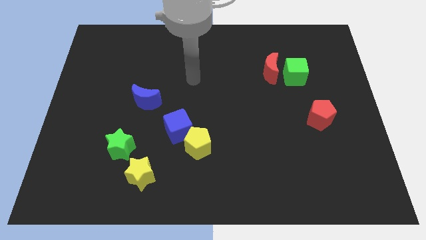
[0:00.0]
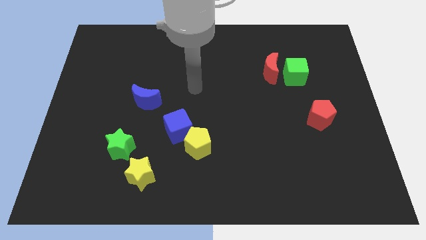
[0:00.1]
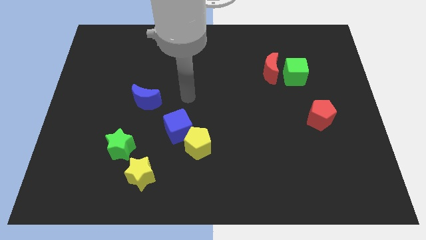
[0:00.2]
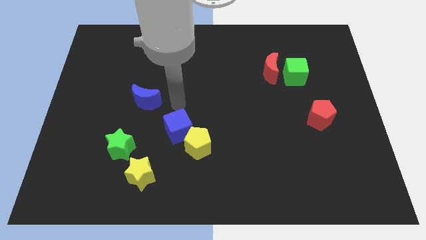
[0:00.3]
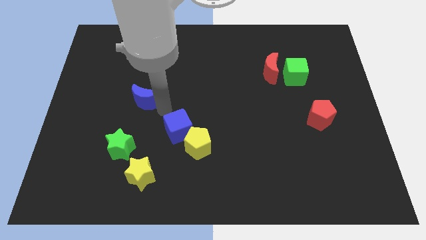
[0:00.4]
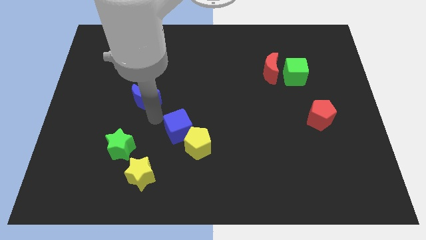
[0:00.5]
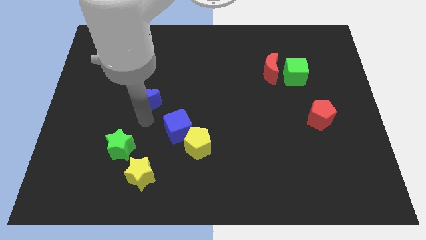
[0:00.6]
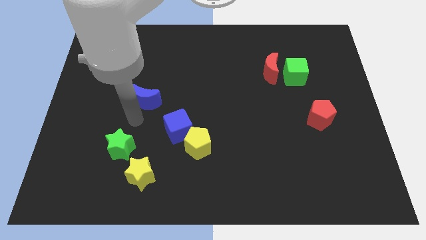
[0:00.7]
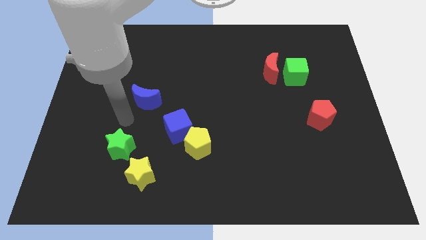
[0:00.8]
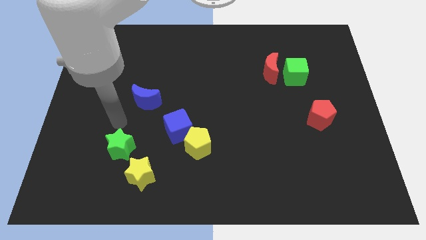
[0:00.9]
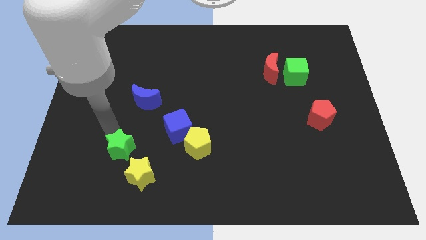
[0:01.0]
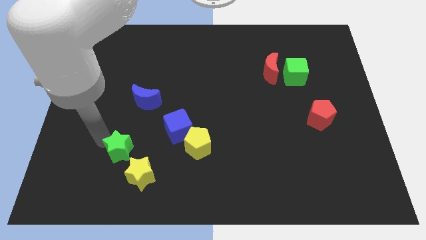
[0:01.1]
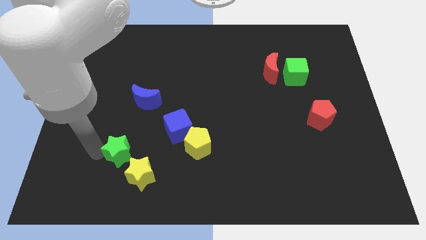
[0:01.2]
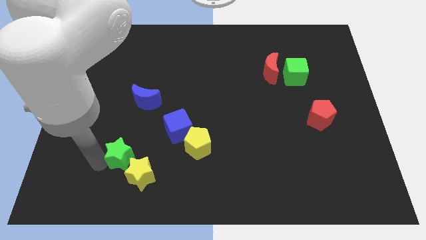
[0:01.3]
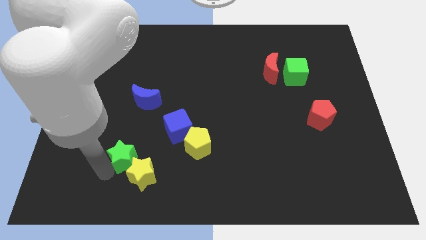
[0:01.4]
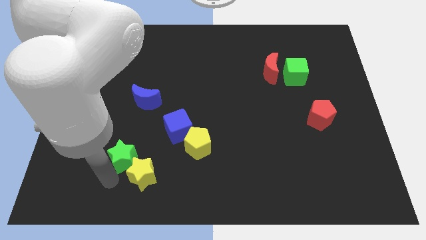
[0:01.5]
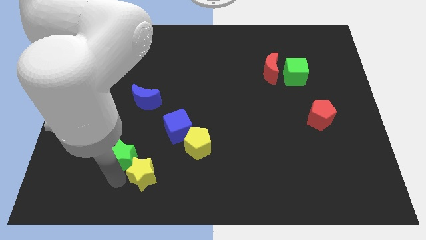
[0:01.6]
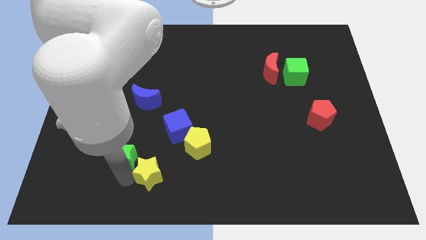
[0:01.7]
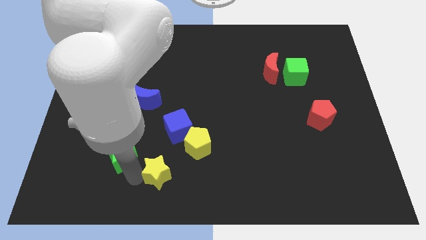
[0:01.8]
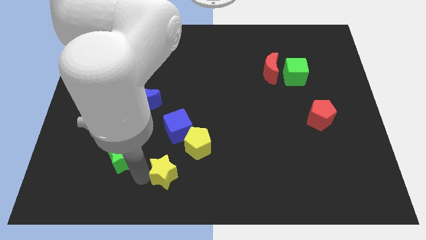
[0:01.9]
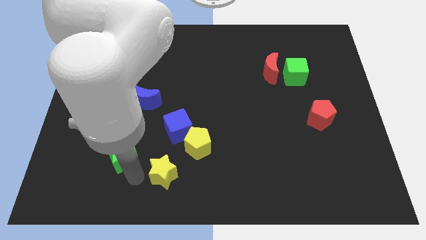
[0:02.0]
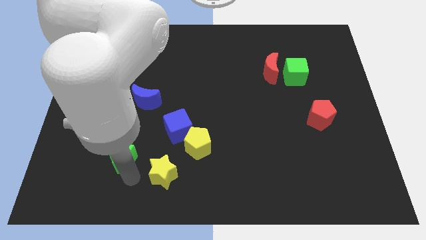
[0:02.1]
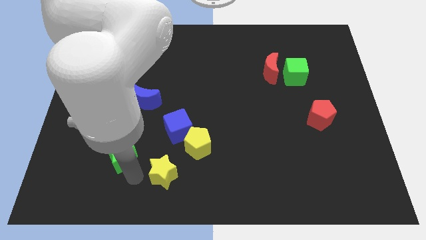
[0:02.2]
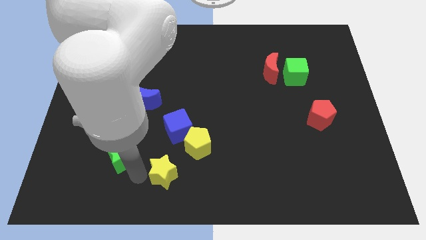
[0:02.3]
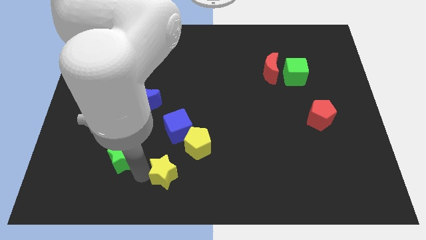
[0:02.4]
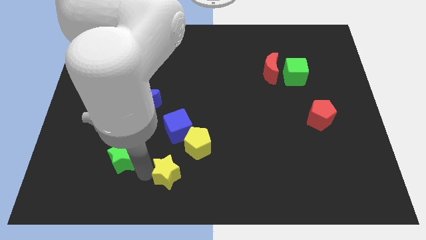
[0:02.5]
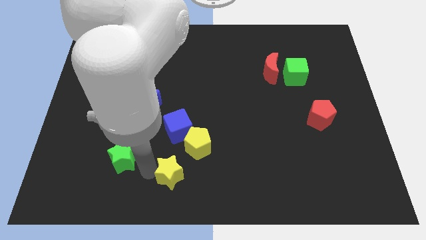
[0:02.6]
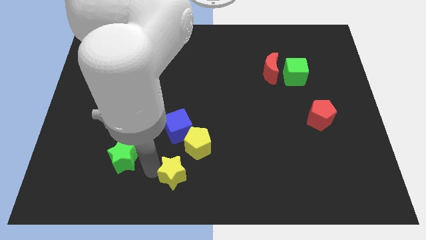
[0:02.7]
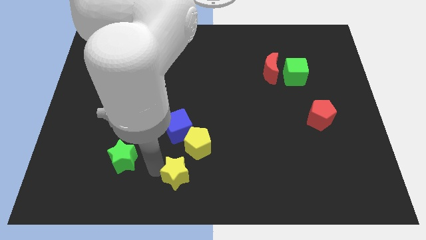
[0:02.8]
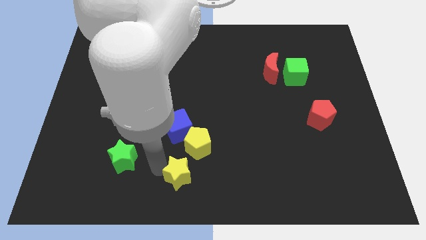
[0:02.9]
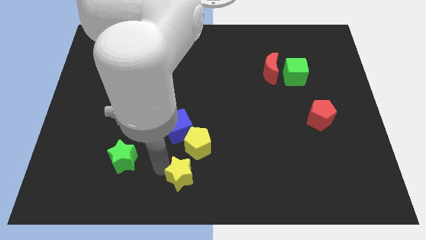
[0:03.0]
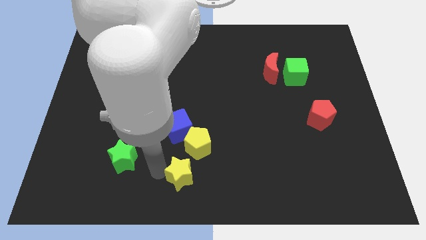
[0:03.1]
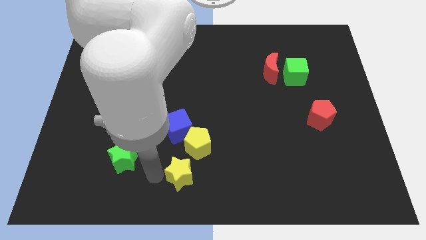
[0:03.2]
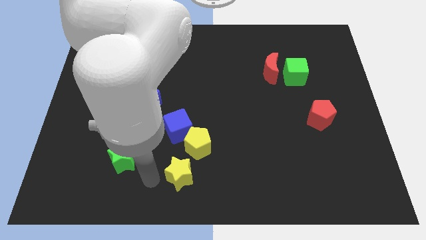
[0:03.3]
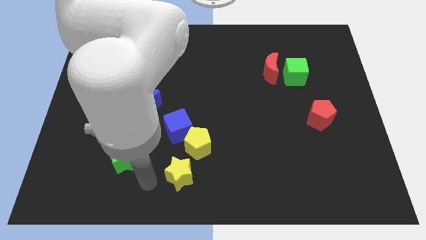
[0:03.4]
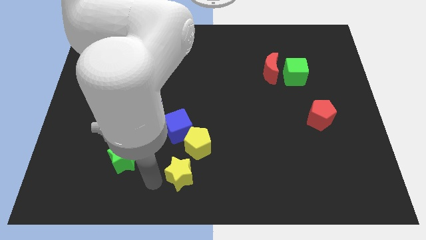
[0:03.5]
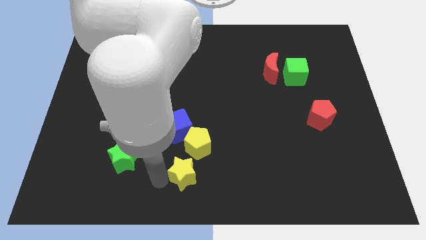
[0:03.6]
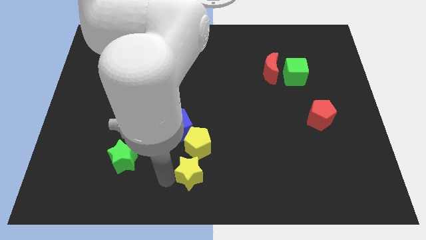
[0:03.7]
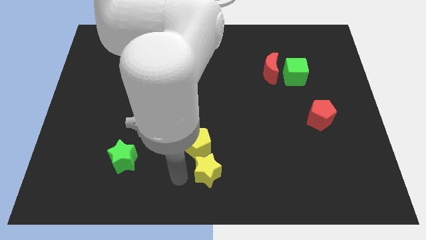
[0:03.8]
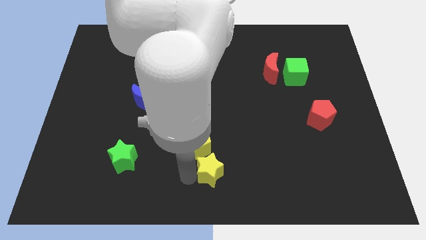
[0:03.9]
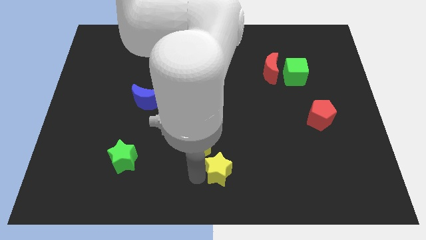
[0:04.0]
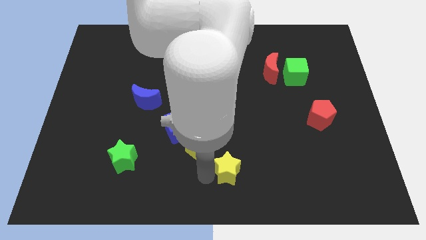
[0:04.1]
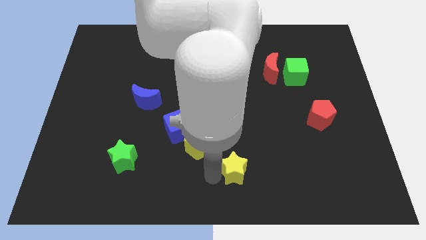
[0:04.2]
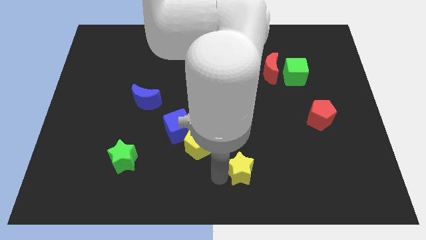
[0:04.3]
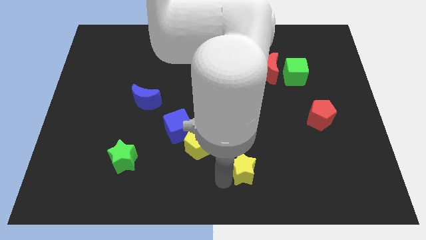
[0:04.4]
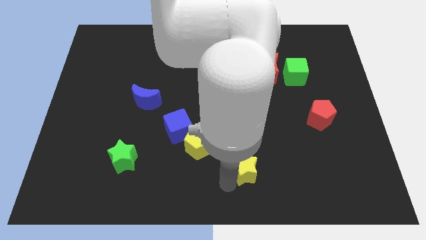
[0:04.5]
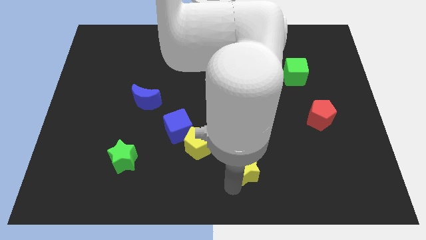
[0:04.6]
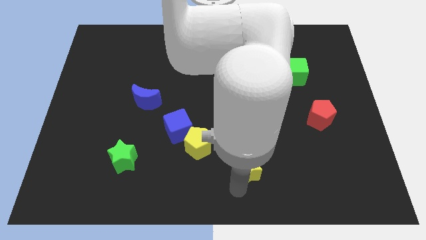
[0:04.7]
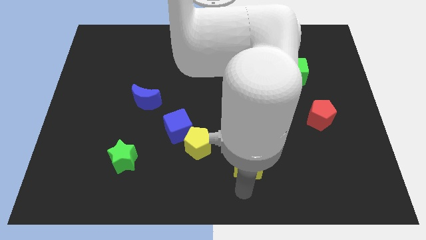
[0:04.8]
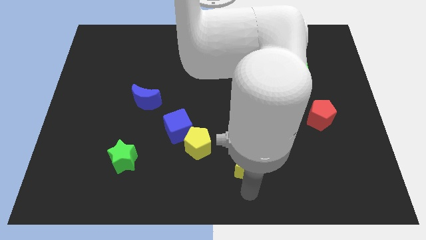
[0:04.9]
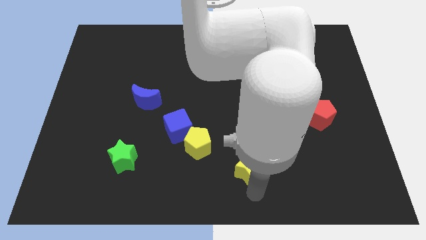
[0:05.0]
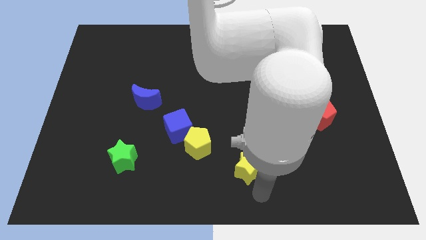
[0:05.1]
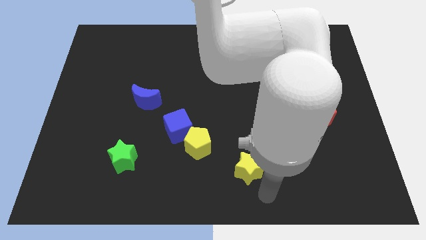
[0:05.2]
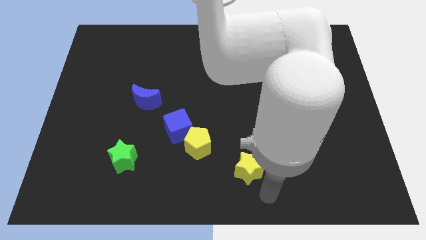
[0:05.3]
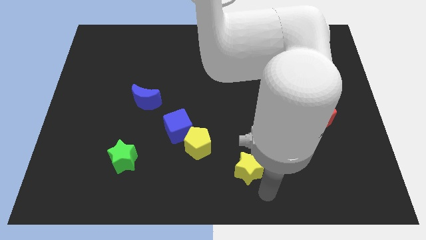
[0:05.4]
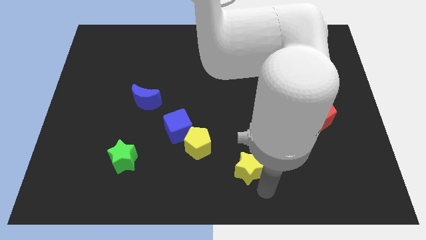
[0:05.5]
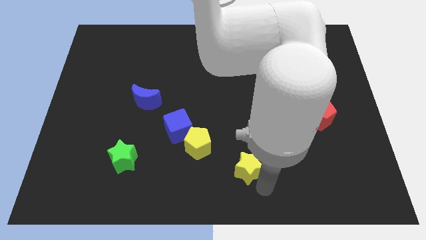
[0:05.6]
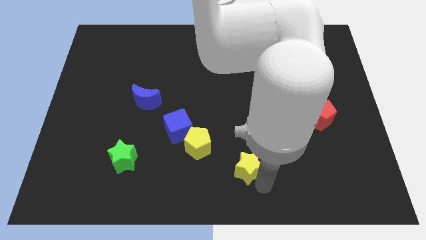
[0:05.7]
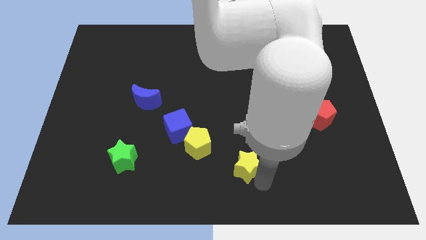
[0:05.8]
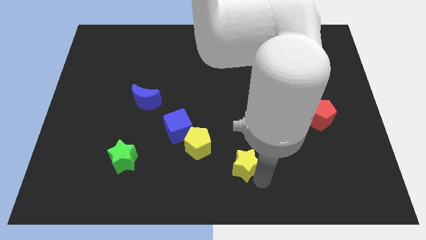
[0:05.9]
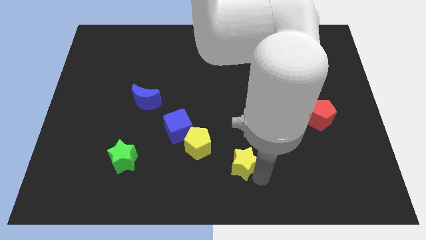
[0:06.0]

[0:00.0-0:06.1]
put the yellow star right of the yellow pentagon

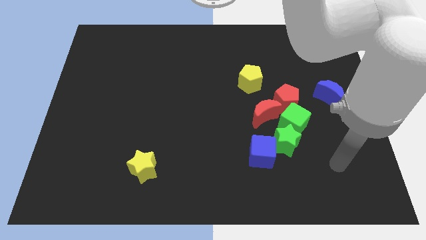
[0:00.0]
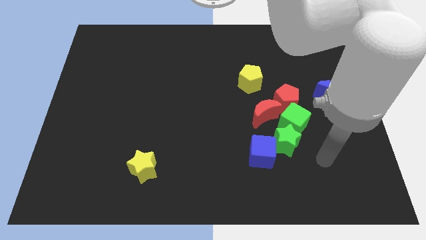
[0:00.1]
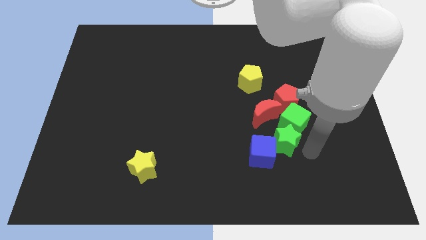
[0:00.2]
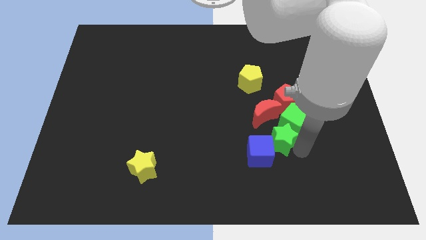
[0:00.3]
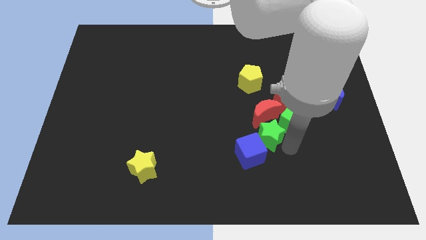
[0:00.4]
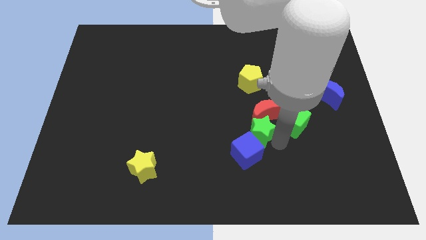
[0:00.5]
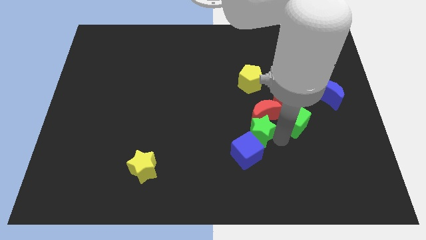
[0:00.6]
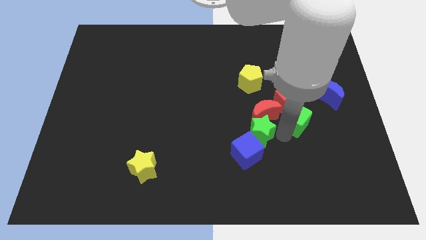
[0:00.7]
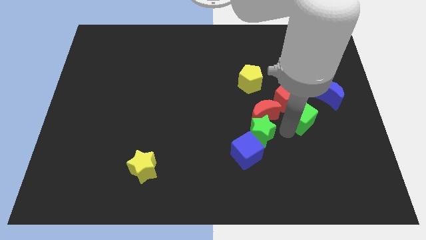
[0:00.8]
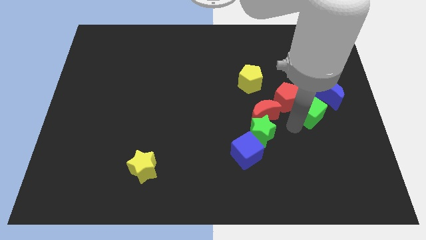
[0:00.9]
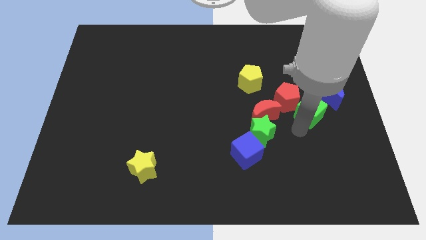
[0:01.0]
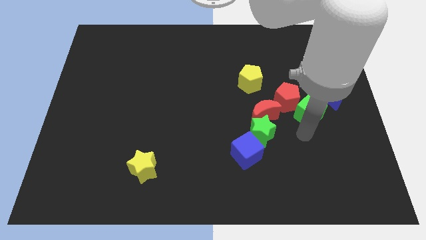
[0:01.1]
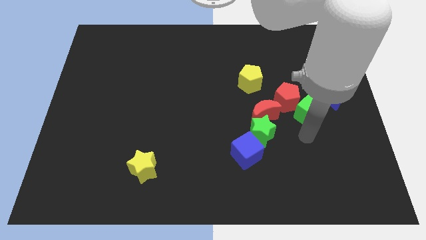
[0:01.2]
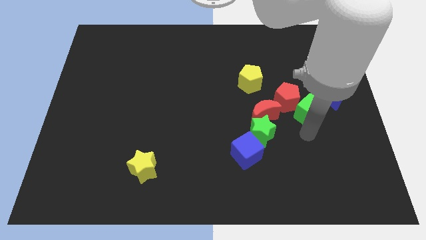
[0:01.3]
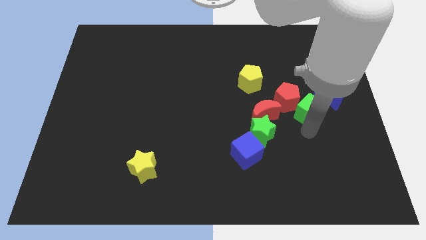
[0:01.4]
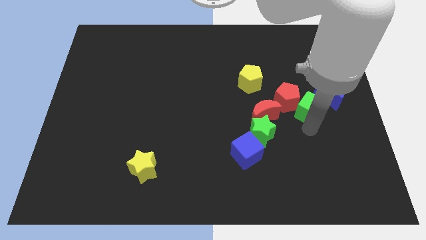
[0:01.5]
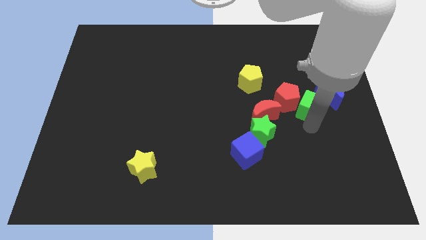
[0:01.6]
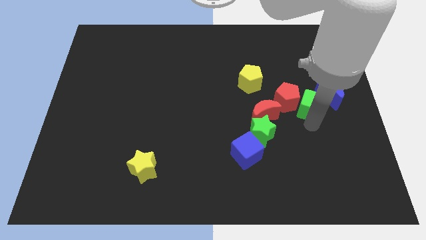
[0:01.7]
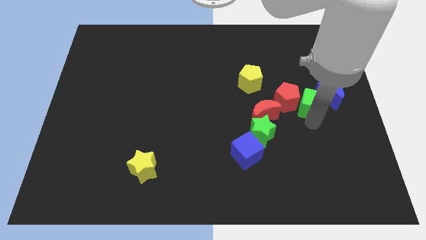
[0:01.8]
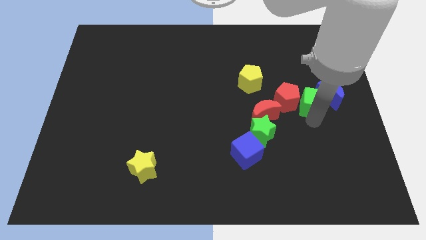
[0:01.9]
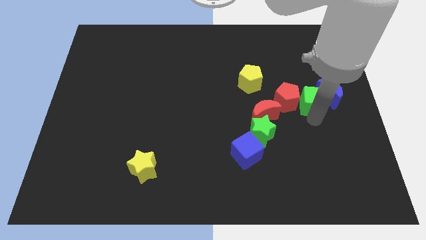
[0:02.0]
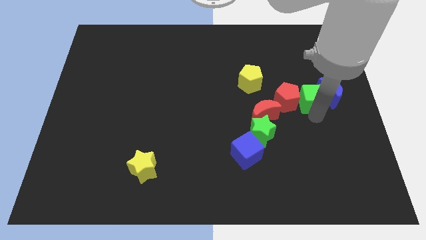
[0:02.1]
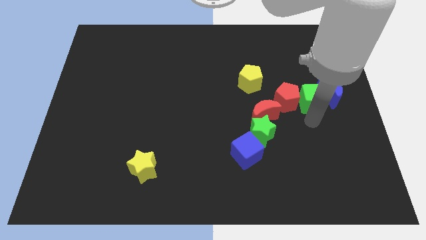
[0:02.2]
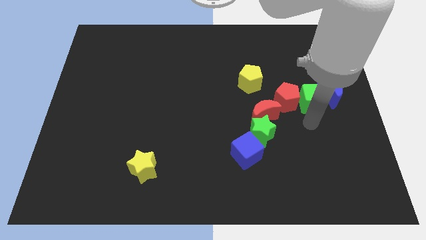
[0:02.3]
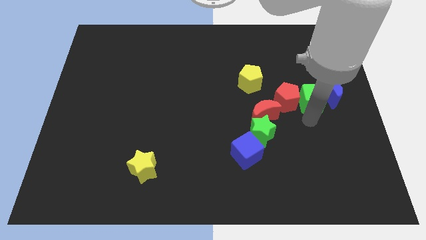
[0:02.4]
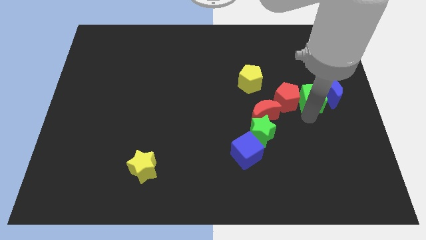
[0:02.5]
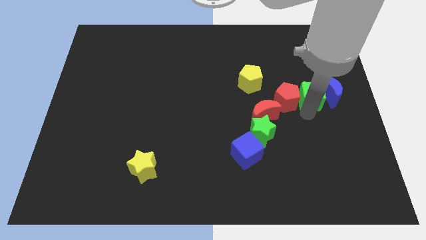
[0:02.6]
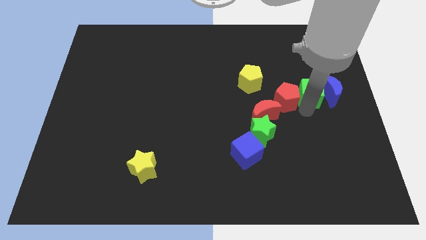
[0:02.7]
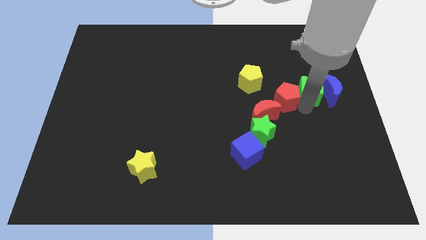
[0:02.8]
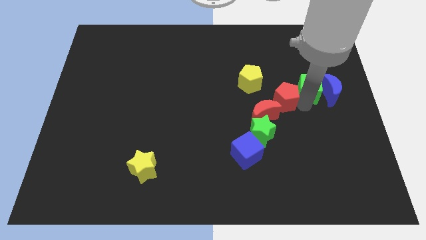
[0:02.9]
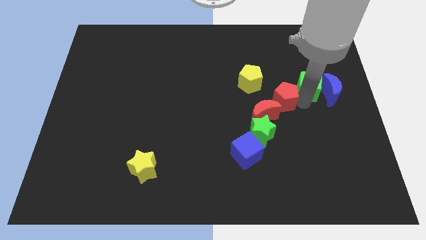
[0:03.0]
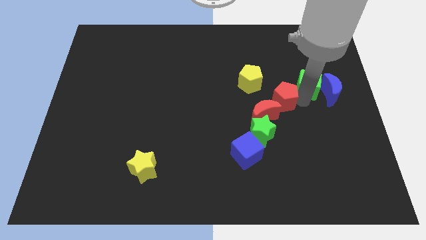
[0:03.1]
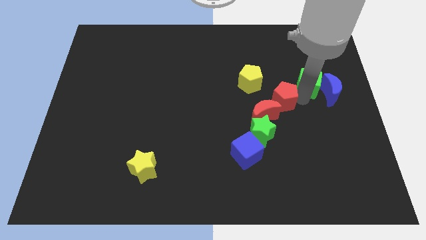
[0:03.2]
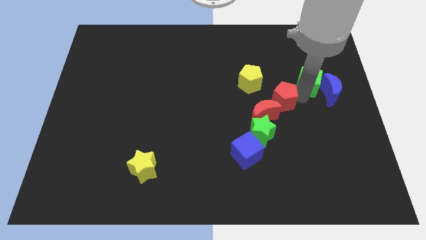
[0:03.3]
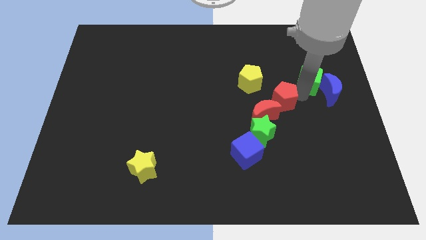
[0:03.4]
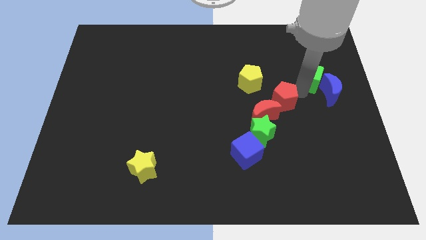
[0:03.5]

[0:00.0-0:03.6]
put the green cube above the blue moon
